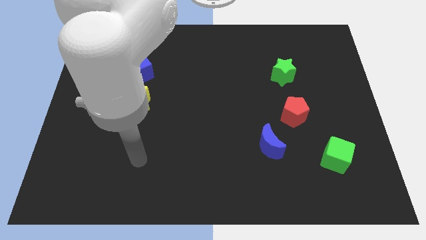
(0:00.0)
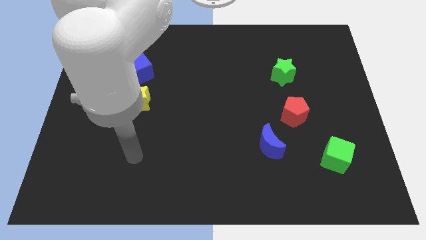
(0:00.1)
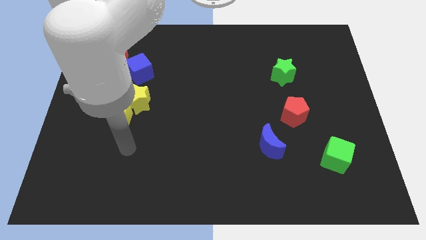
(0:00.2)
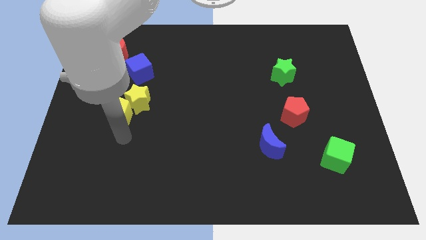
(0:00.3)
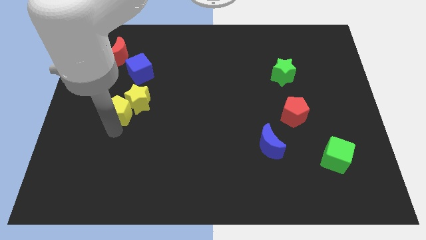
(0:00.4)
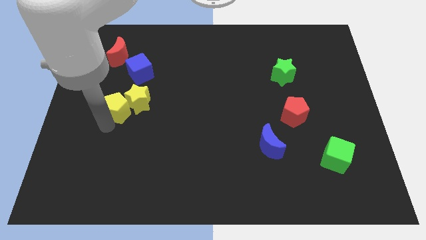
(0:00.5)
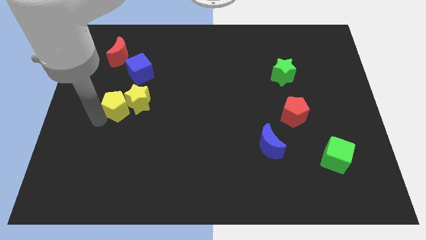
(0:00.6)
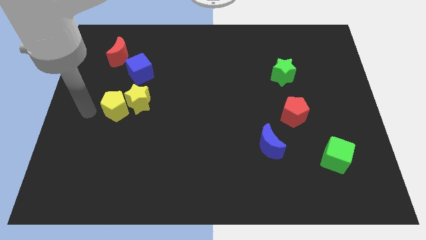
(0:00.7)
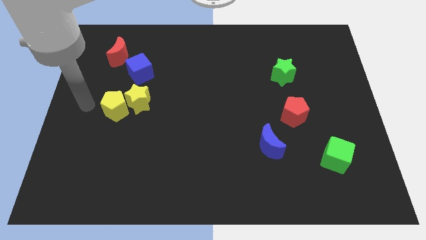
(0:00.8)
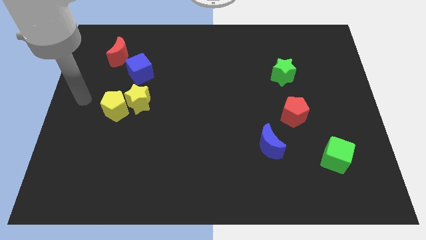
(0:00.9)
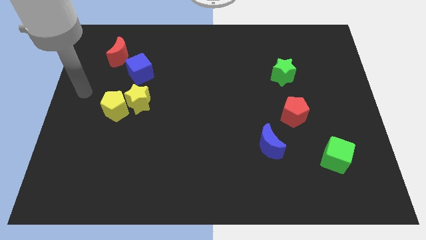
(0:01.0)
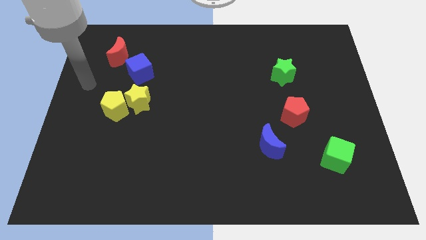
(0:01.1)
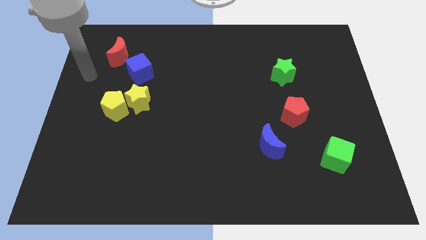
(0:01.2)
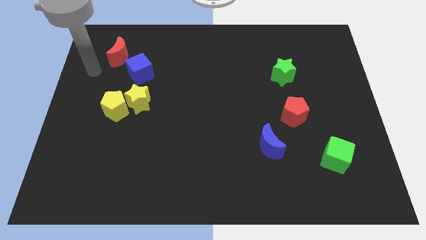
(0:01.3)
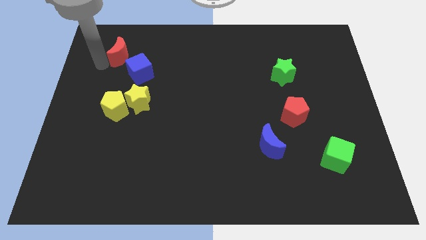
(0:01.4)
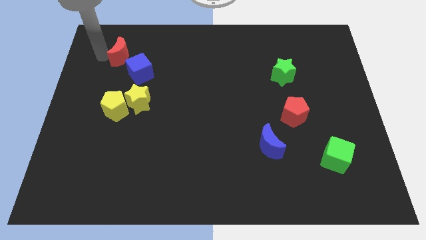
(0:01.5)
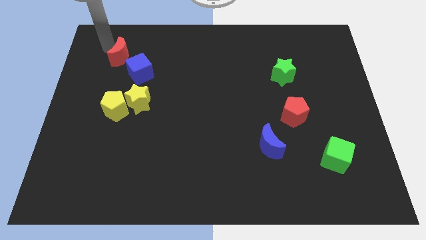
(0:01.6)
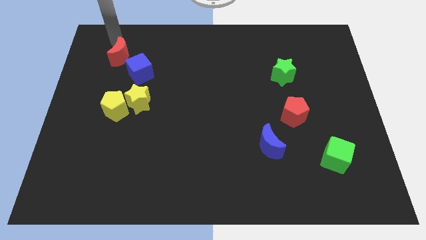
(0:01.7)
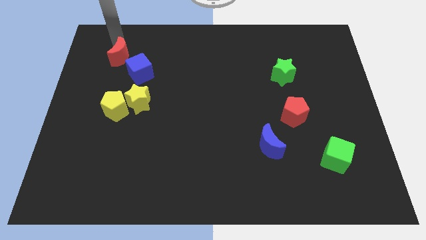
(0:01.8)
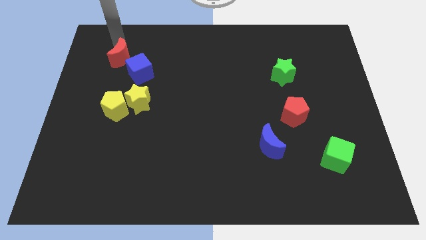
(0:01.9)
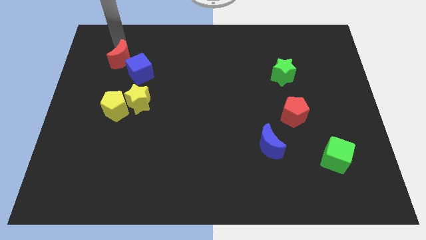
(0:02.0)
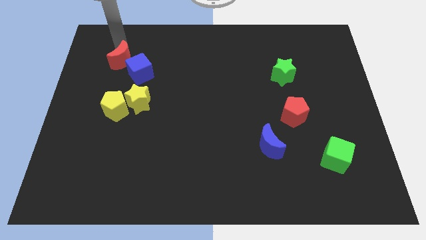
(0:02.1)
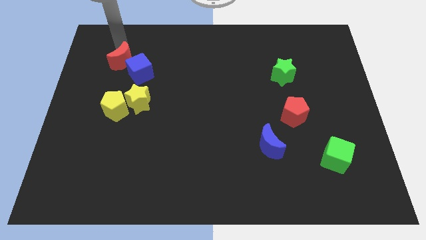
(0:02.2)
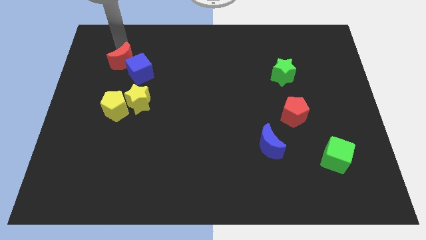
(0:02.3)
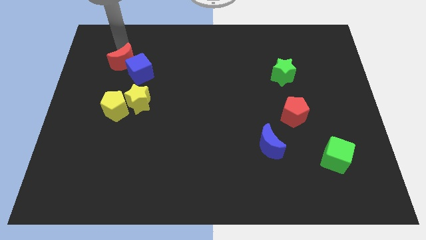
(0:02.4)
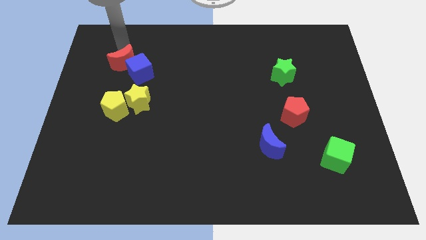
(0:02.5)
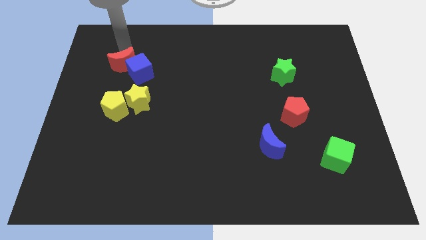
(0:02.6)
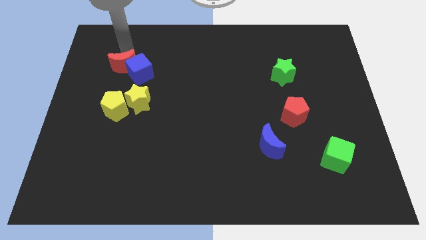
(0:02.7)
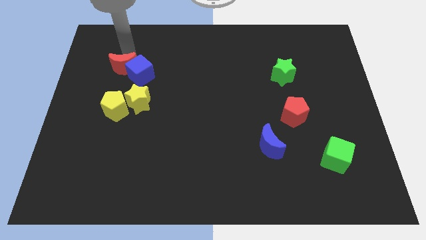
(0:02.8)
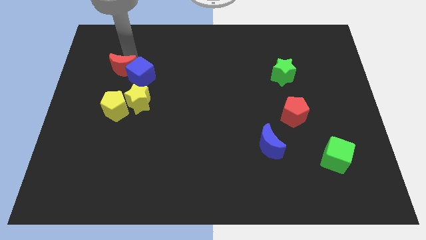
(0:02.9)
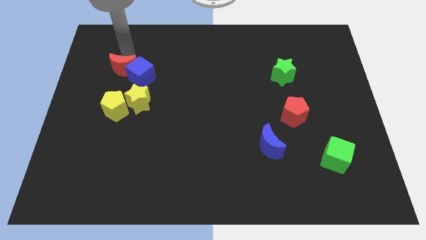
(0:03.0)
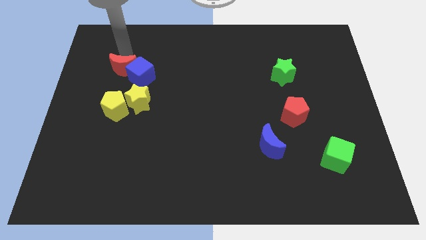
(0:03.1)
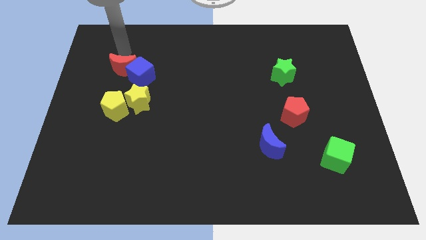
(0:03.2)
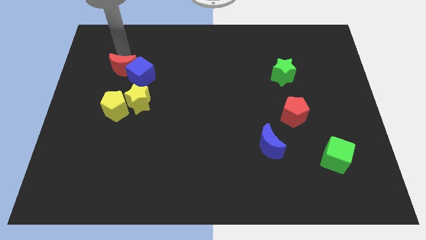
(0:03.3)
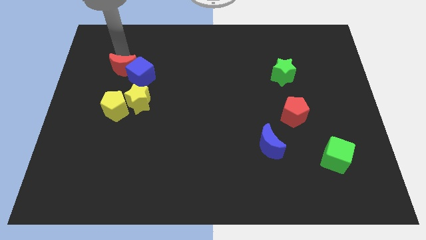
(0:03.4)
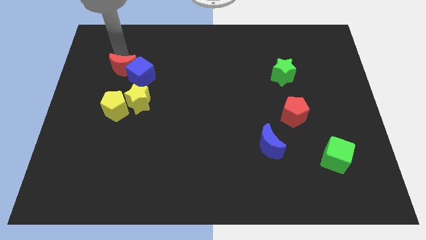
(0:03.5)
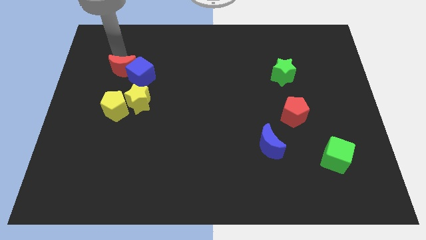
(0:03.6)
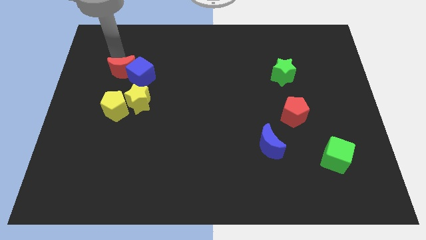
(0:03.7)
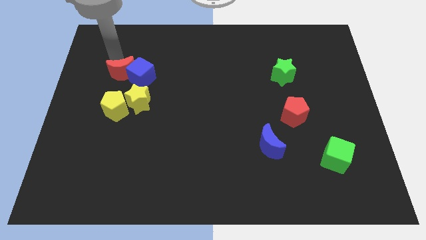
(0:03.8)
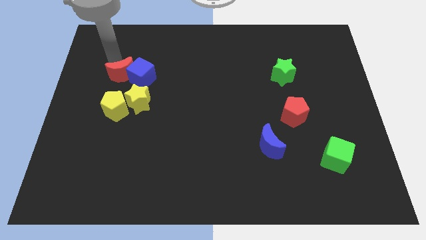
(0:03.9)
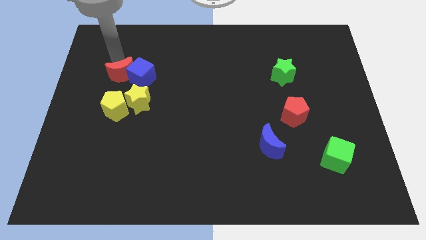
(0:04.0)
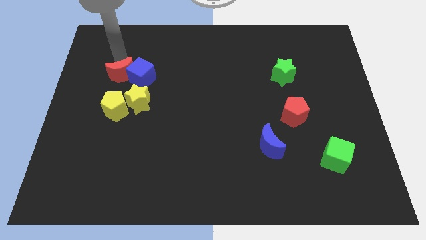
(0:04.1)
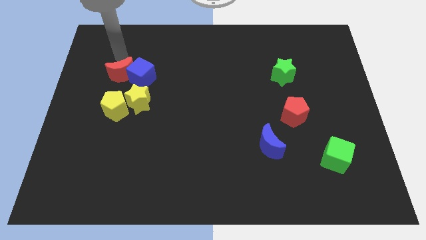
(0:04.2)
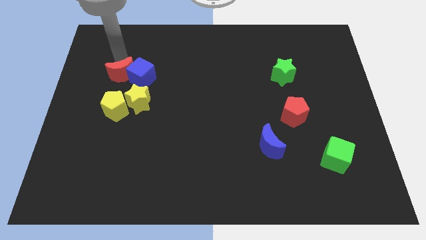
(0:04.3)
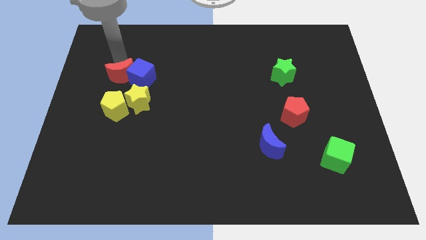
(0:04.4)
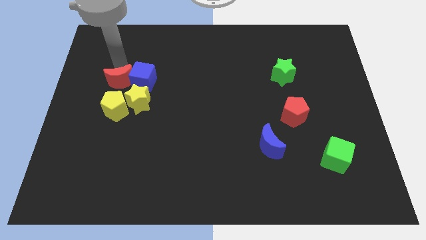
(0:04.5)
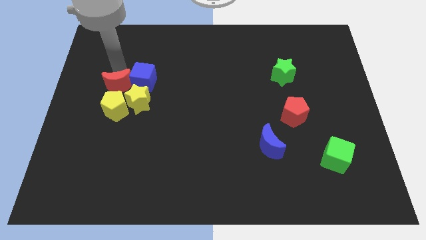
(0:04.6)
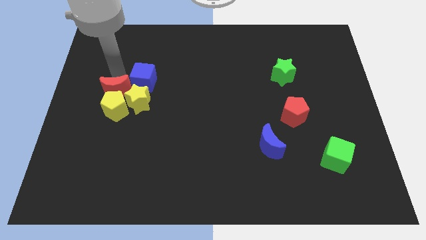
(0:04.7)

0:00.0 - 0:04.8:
push the red moon towards the yellow pentagon

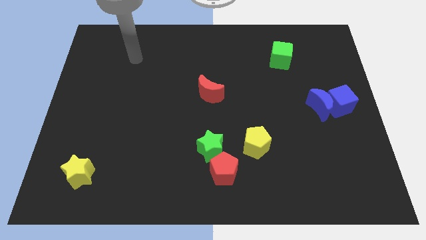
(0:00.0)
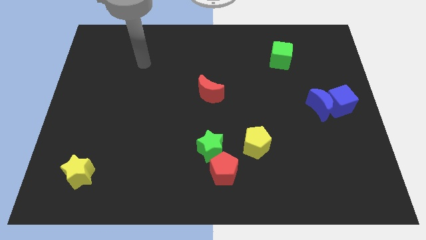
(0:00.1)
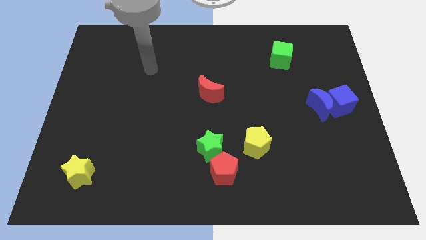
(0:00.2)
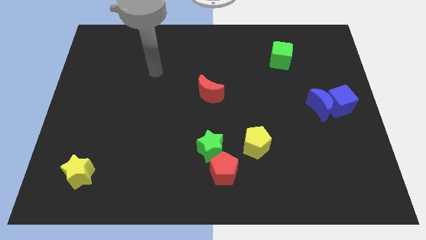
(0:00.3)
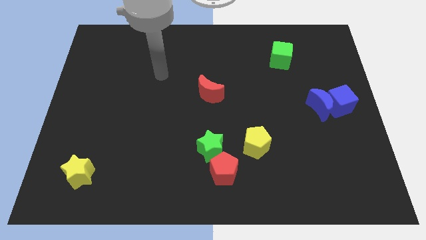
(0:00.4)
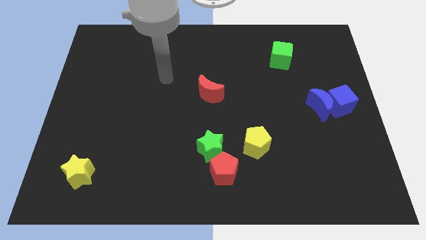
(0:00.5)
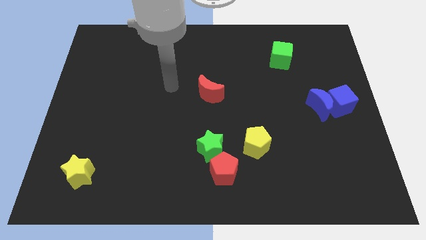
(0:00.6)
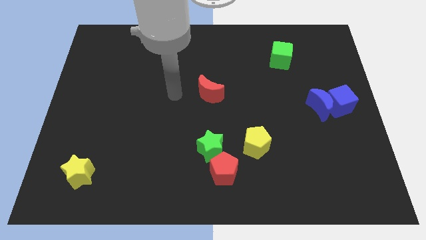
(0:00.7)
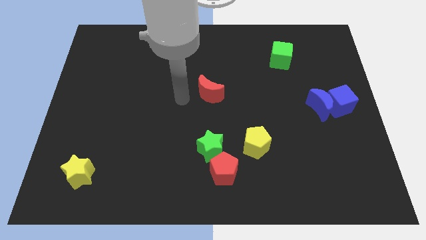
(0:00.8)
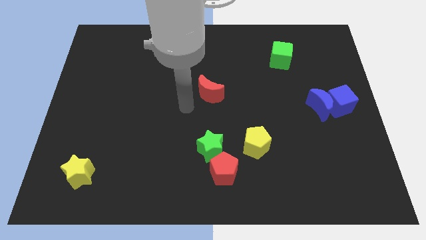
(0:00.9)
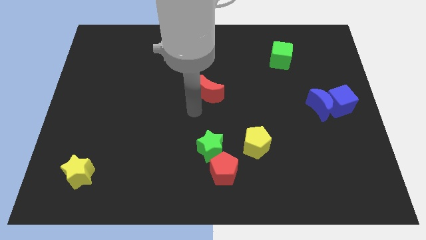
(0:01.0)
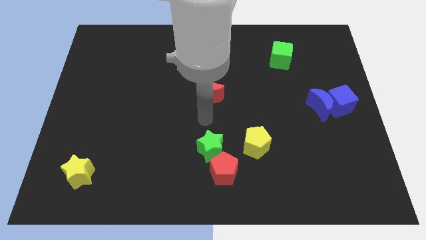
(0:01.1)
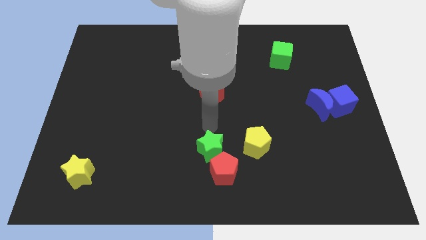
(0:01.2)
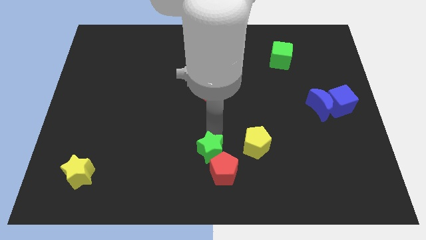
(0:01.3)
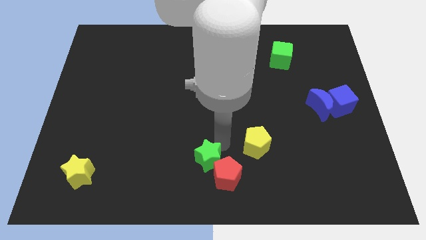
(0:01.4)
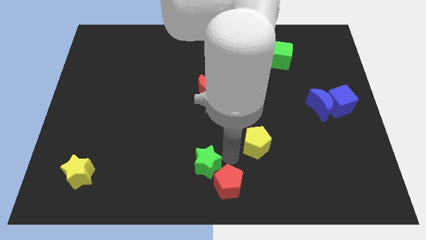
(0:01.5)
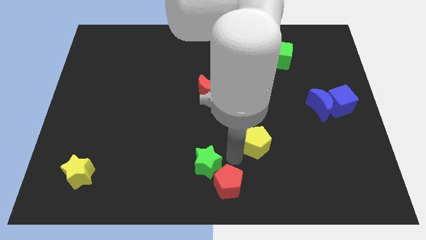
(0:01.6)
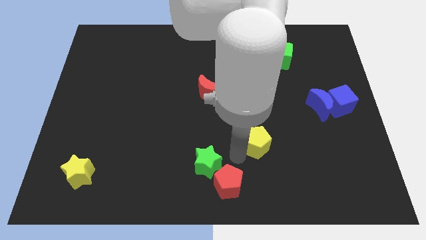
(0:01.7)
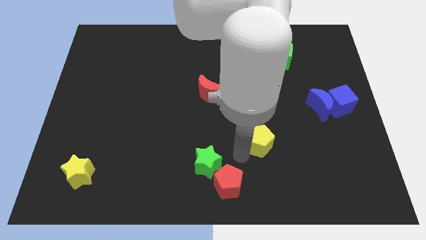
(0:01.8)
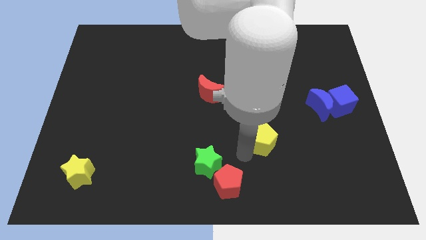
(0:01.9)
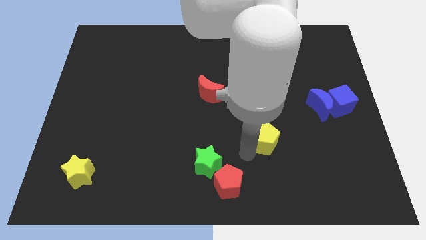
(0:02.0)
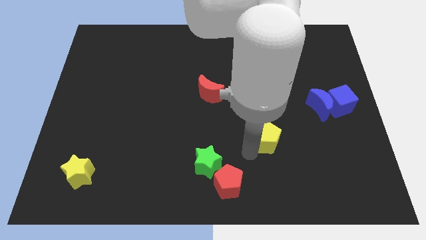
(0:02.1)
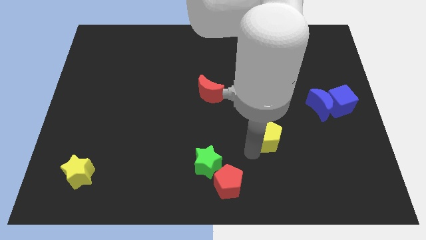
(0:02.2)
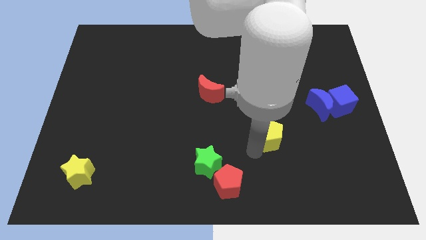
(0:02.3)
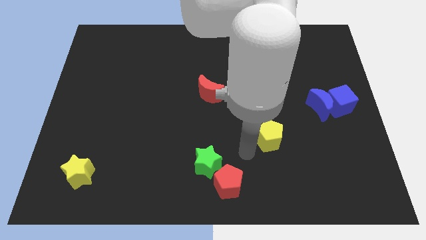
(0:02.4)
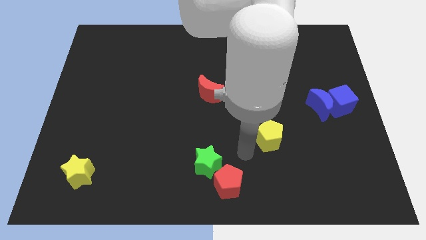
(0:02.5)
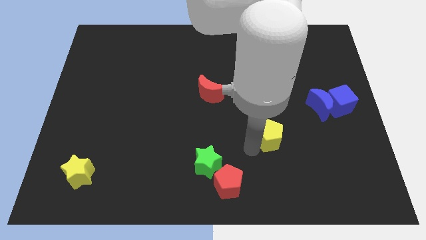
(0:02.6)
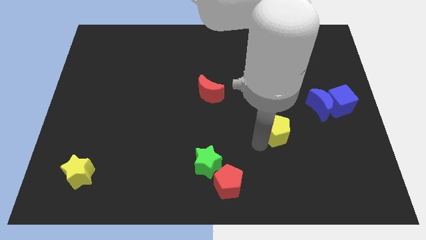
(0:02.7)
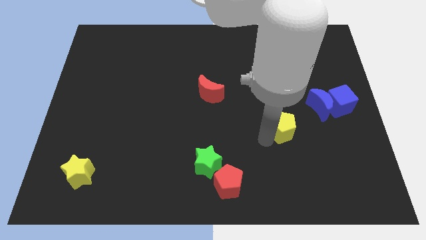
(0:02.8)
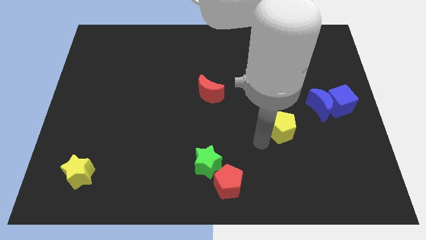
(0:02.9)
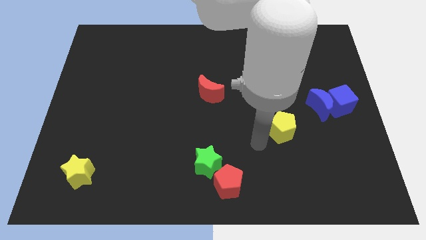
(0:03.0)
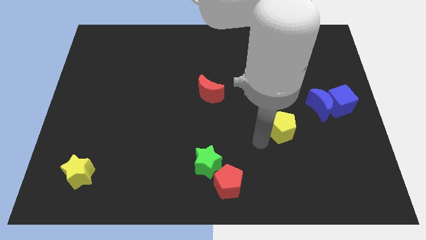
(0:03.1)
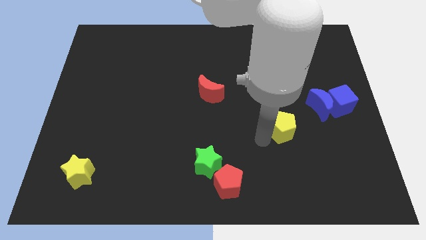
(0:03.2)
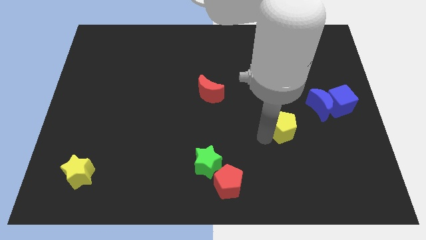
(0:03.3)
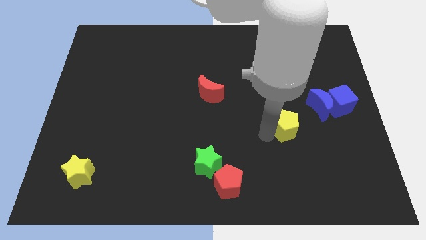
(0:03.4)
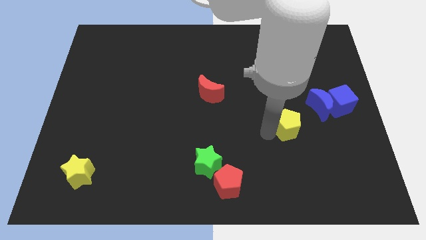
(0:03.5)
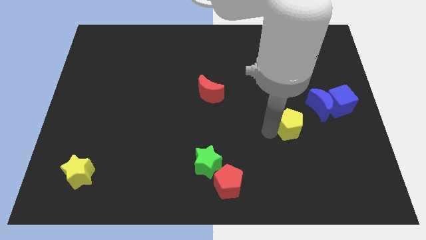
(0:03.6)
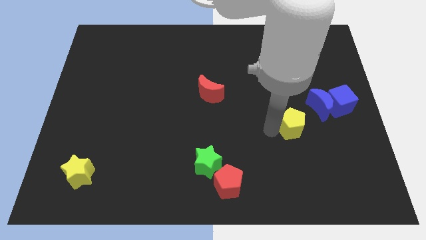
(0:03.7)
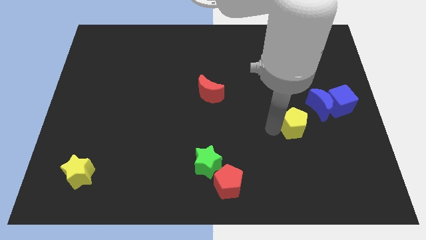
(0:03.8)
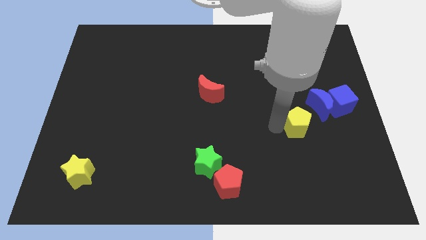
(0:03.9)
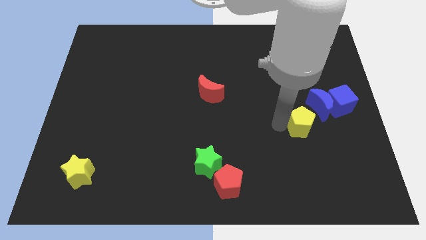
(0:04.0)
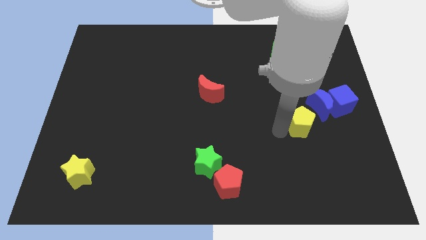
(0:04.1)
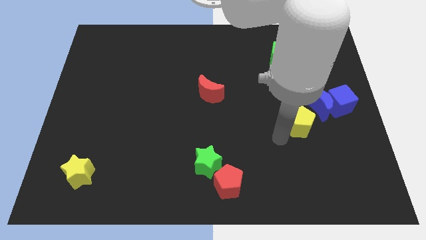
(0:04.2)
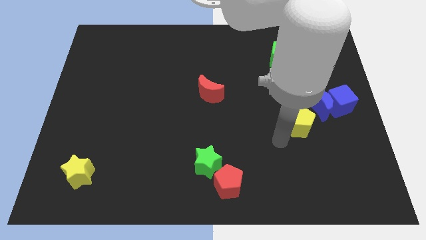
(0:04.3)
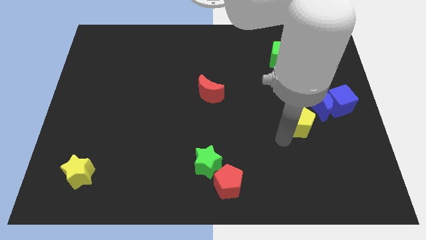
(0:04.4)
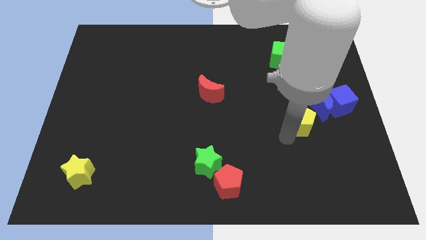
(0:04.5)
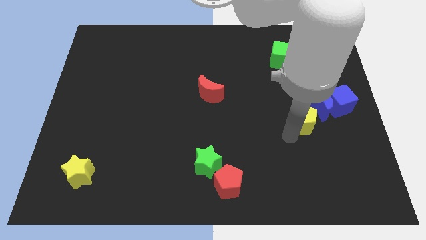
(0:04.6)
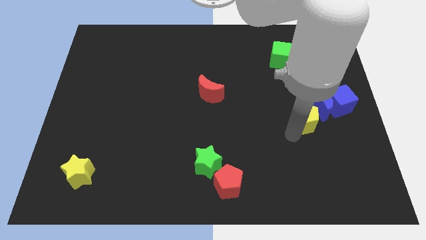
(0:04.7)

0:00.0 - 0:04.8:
move the yellow pentagon close to the blue moon
